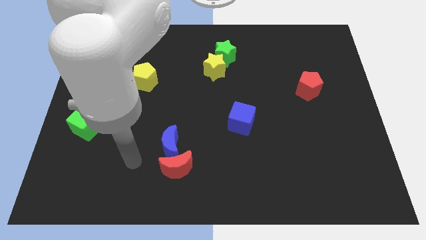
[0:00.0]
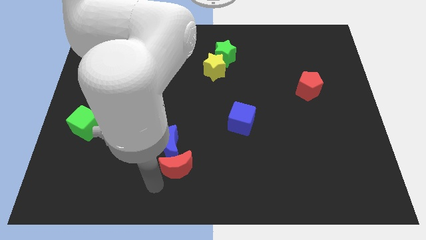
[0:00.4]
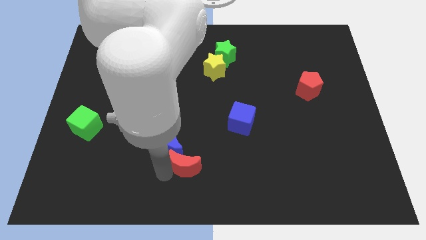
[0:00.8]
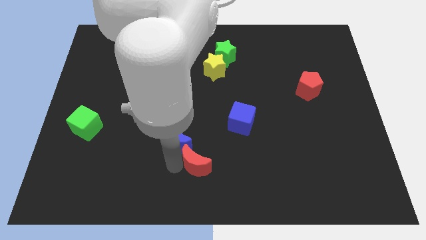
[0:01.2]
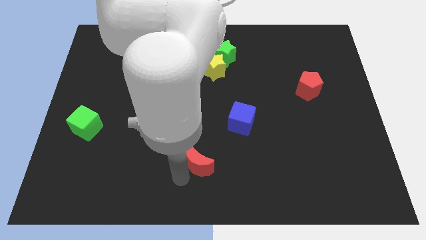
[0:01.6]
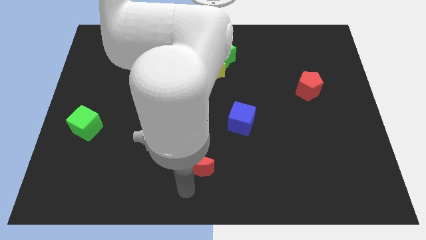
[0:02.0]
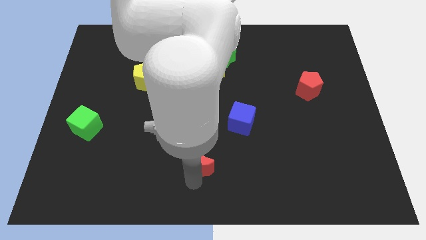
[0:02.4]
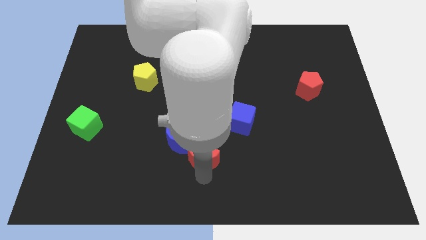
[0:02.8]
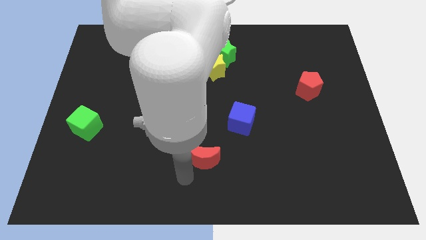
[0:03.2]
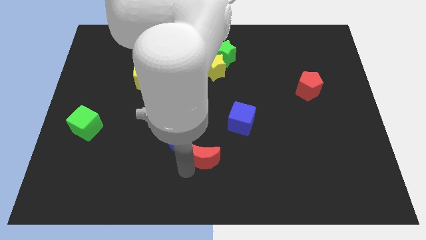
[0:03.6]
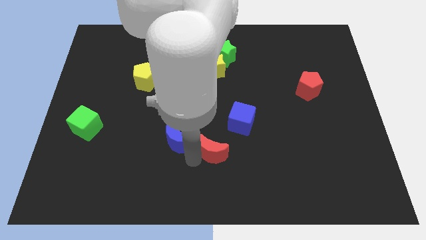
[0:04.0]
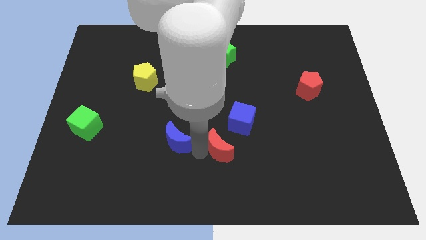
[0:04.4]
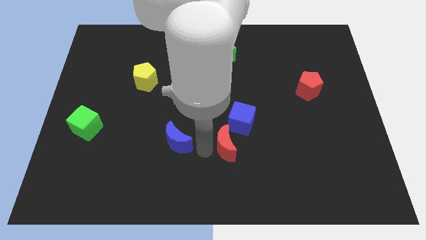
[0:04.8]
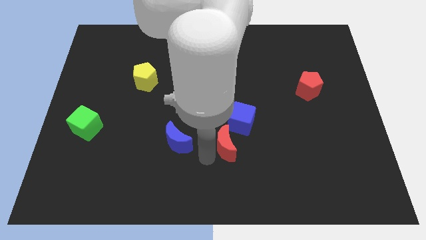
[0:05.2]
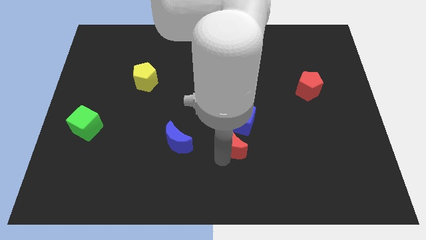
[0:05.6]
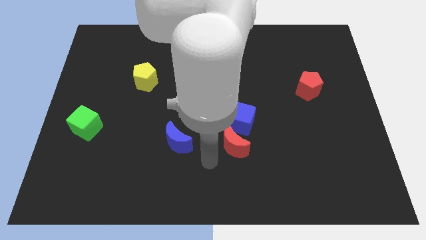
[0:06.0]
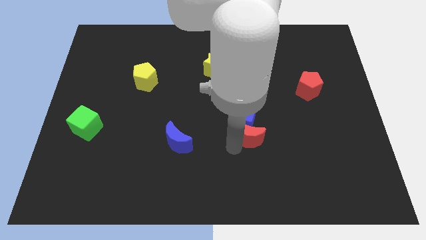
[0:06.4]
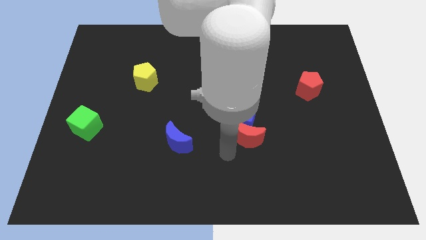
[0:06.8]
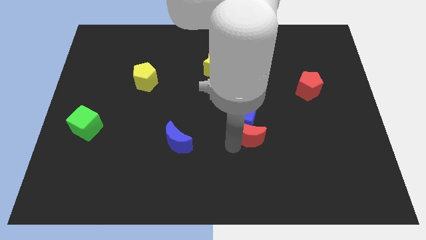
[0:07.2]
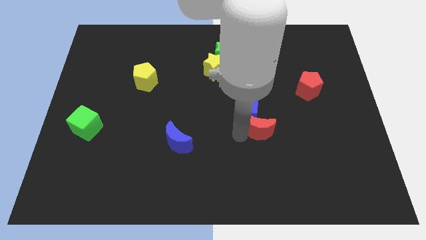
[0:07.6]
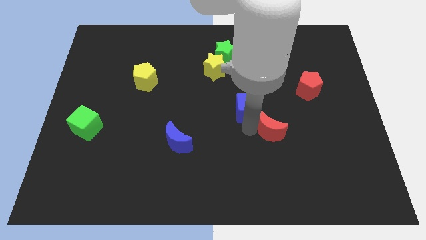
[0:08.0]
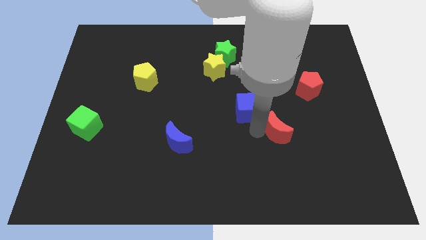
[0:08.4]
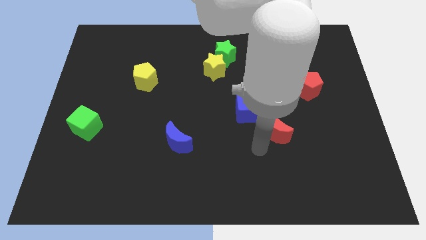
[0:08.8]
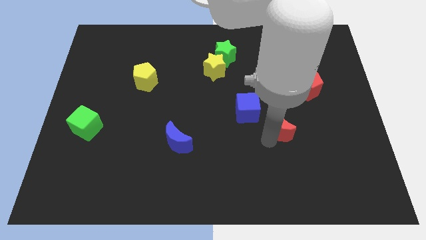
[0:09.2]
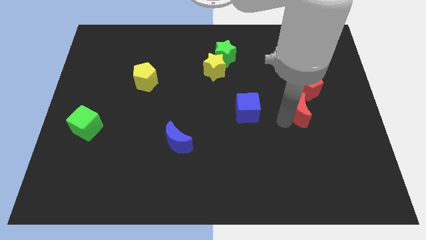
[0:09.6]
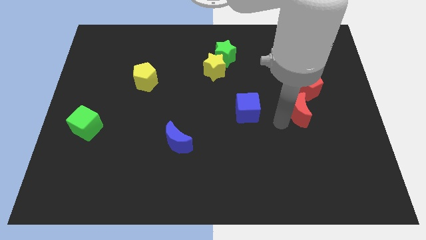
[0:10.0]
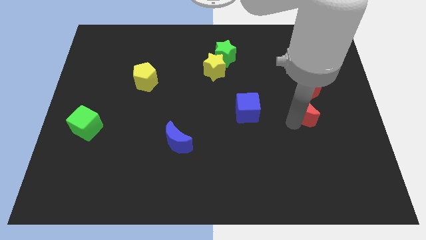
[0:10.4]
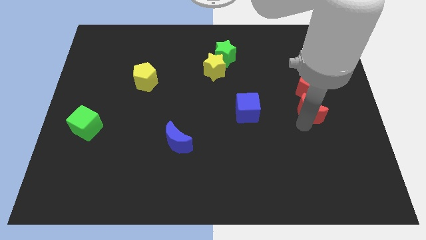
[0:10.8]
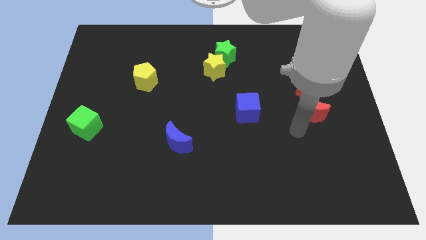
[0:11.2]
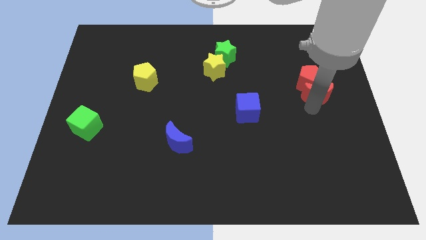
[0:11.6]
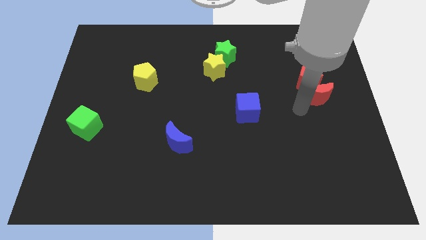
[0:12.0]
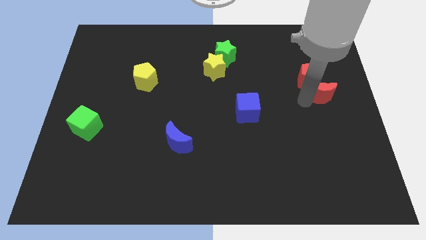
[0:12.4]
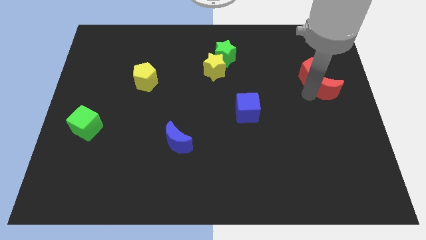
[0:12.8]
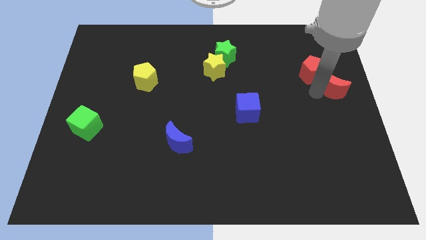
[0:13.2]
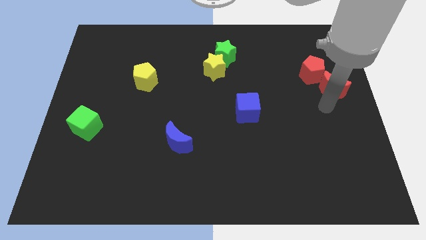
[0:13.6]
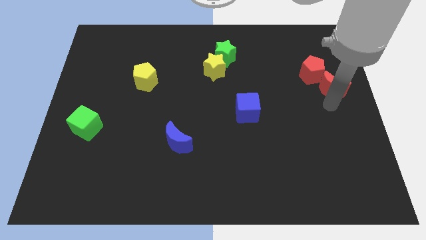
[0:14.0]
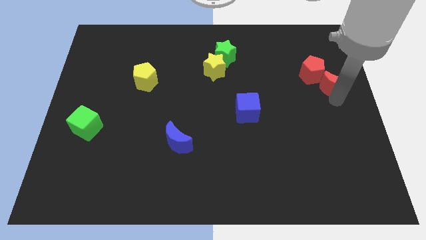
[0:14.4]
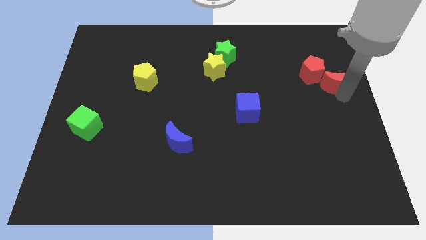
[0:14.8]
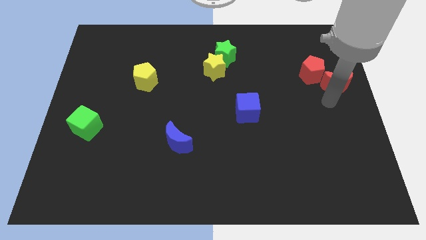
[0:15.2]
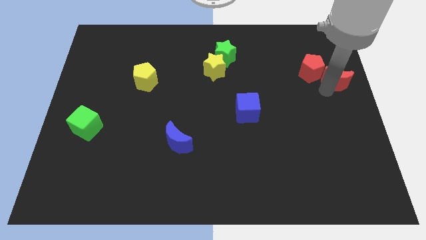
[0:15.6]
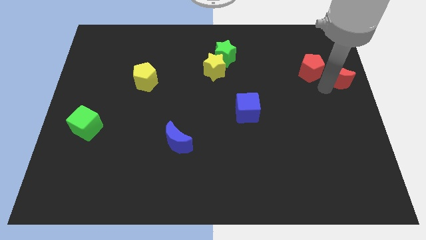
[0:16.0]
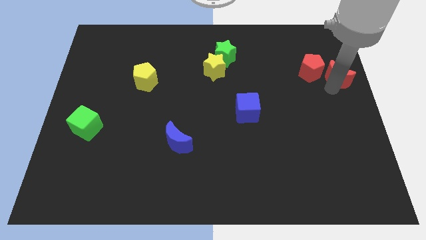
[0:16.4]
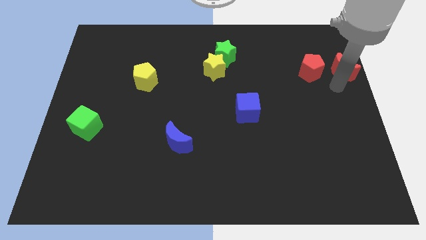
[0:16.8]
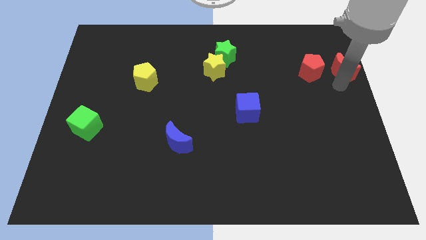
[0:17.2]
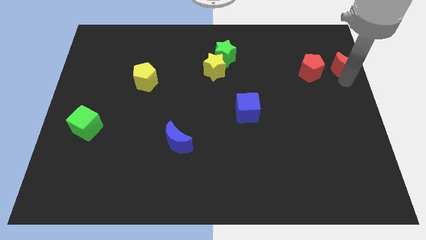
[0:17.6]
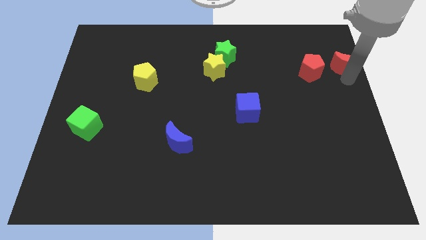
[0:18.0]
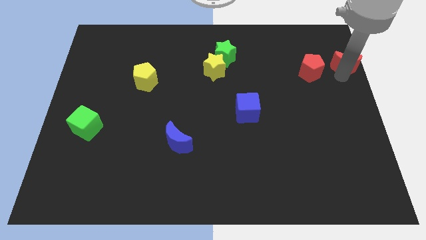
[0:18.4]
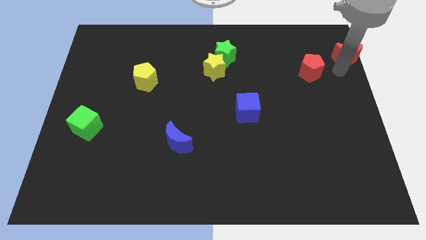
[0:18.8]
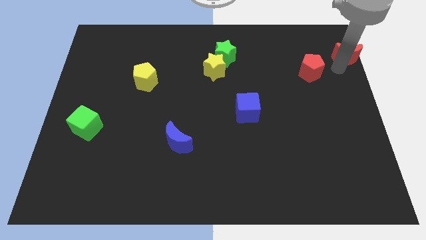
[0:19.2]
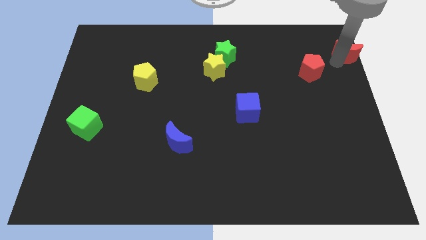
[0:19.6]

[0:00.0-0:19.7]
slide the red moon to the top right

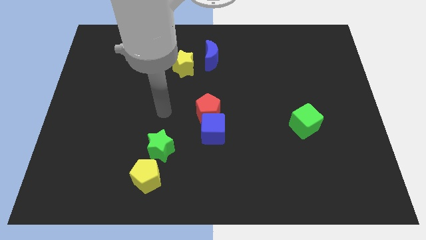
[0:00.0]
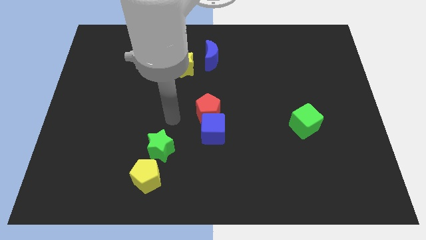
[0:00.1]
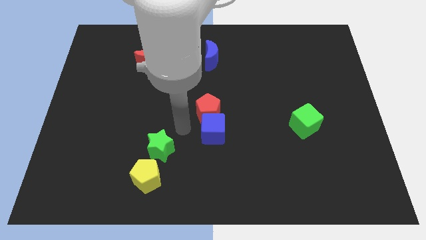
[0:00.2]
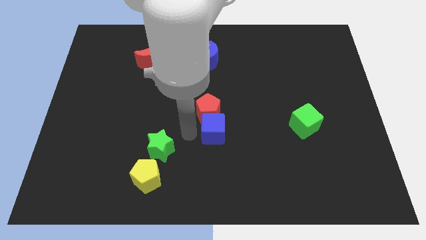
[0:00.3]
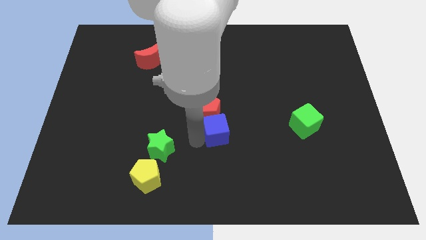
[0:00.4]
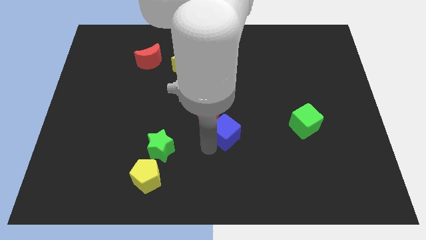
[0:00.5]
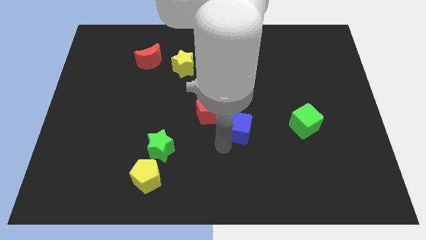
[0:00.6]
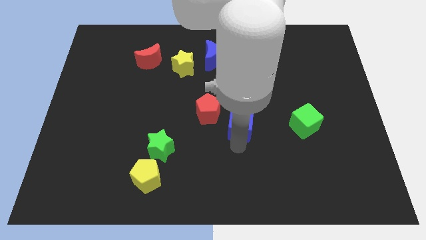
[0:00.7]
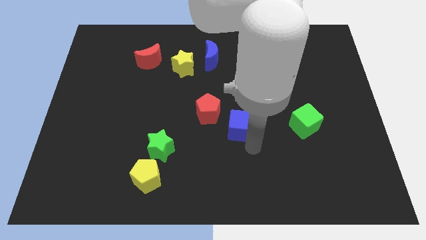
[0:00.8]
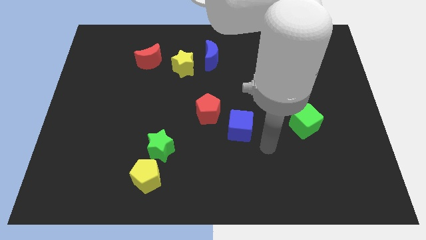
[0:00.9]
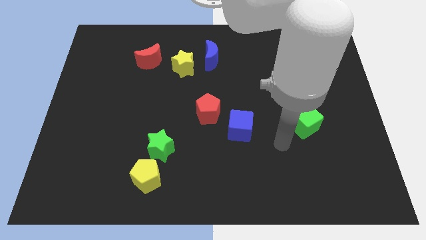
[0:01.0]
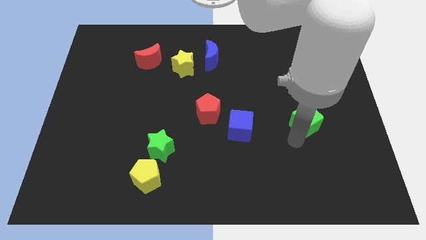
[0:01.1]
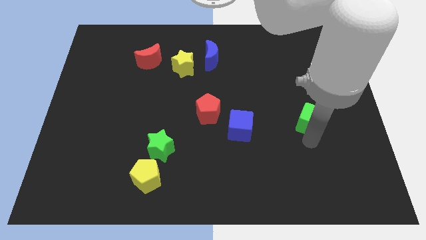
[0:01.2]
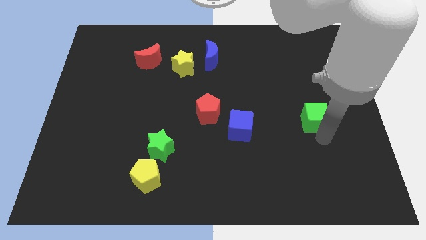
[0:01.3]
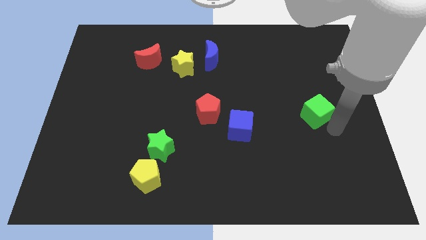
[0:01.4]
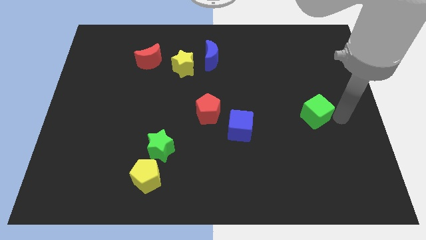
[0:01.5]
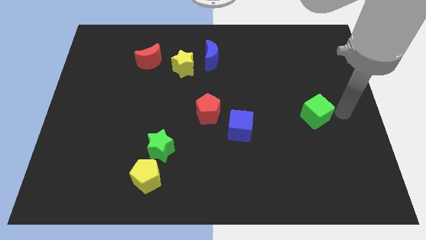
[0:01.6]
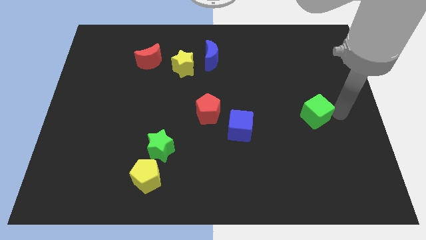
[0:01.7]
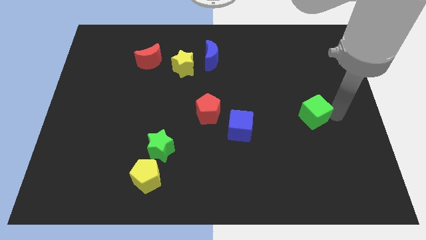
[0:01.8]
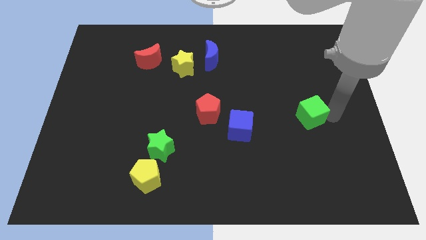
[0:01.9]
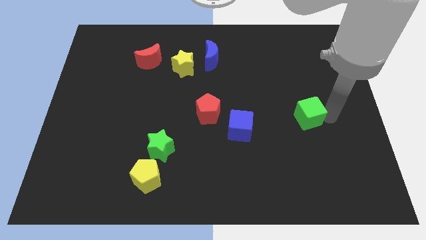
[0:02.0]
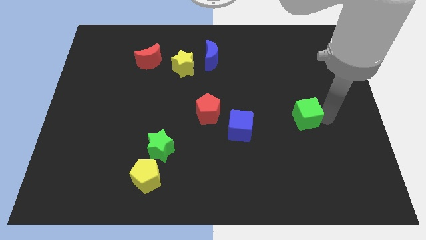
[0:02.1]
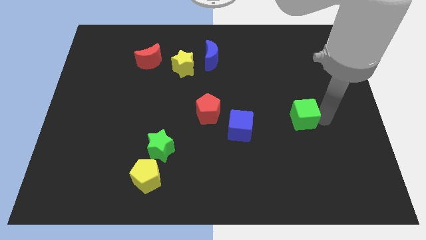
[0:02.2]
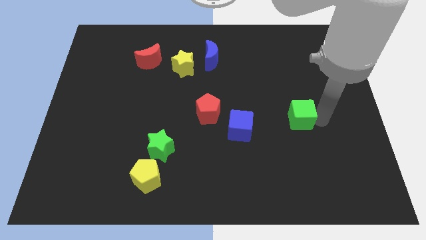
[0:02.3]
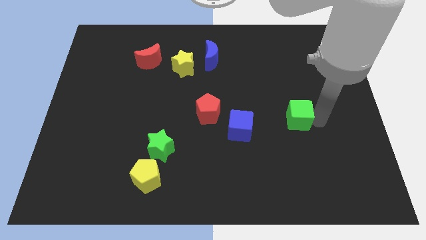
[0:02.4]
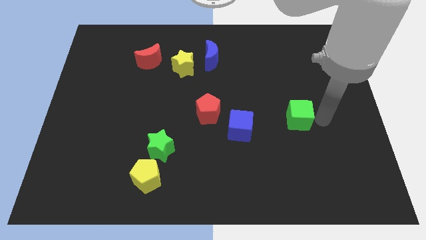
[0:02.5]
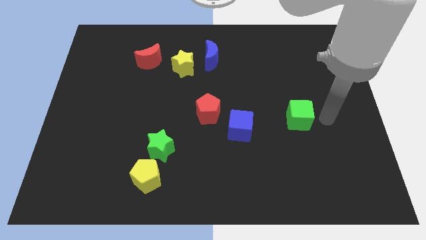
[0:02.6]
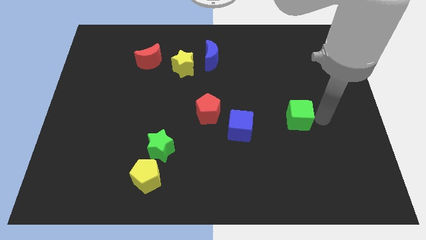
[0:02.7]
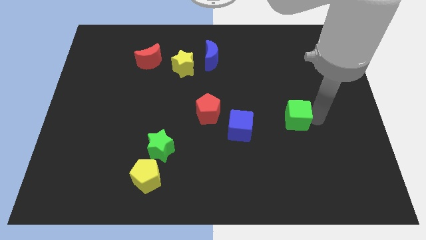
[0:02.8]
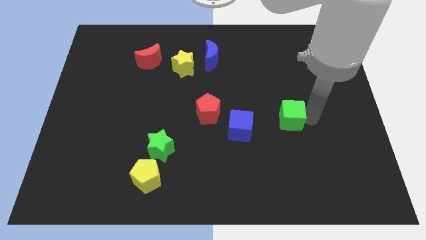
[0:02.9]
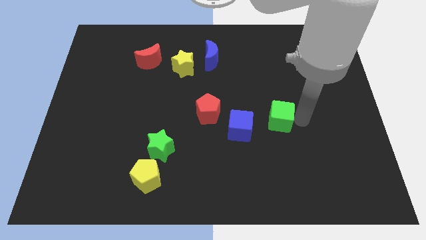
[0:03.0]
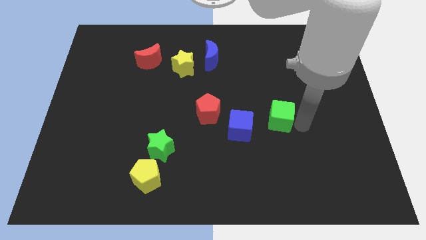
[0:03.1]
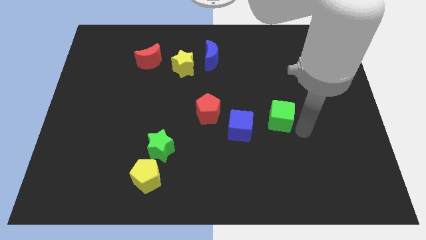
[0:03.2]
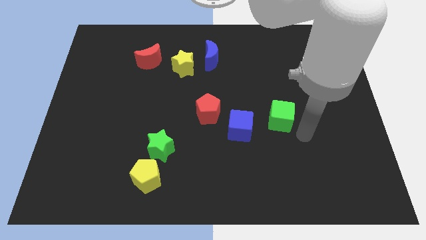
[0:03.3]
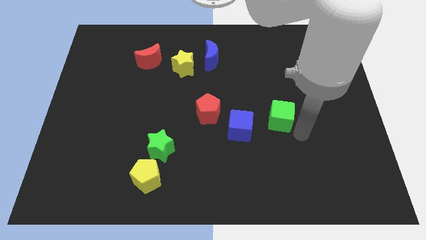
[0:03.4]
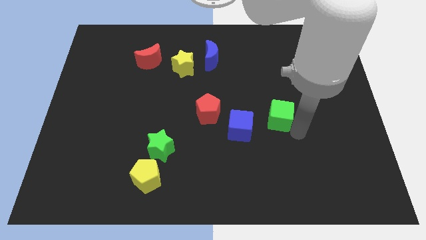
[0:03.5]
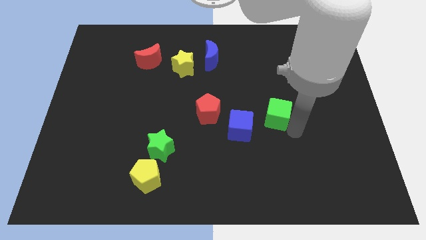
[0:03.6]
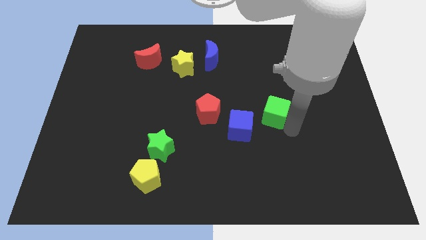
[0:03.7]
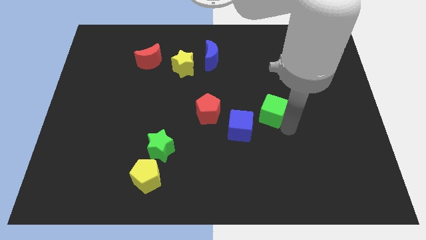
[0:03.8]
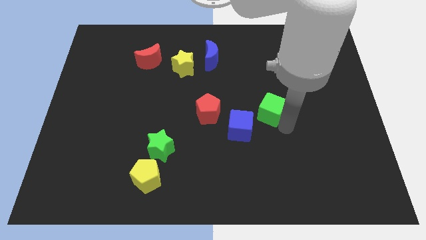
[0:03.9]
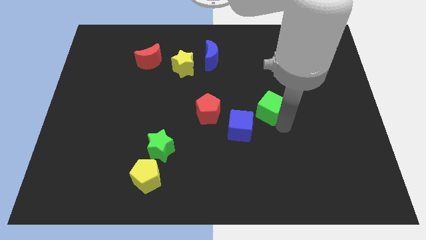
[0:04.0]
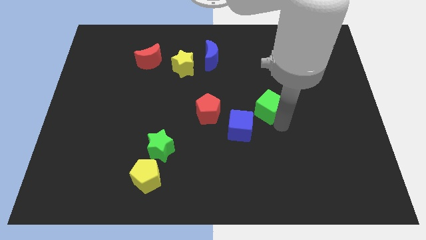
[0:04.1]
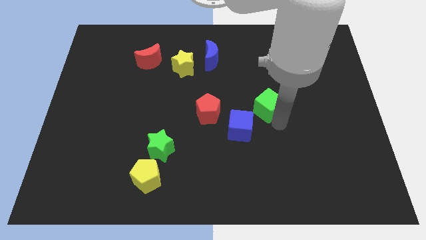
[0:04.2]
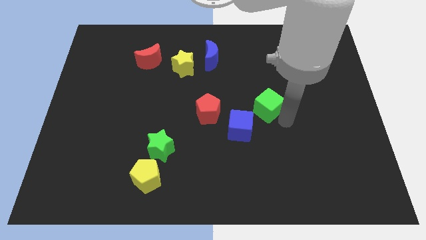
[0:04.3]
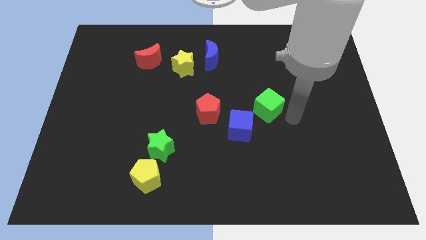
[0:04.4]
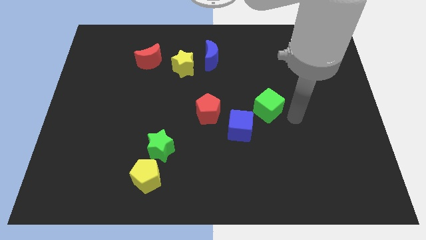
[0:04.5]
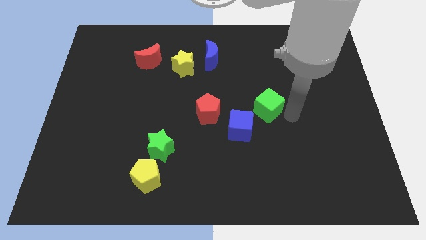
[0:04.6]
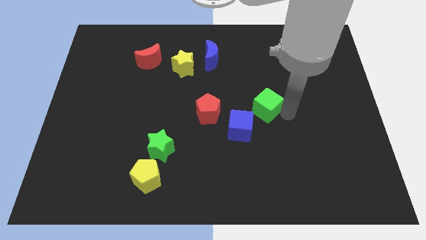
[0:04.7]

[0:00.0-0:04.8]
push the green cube to the middle of the board
